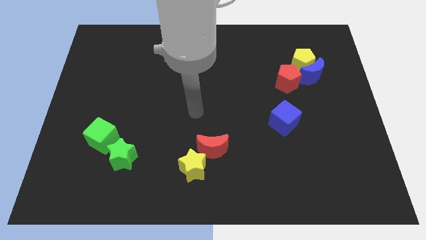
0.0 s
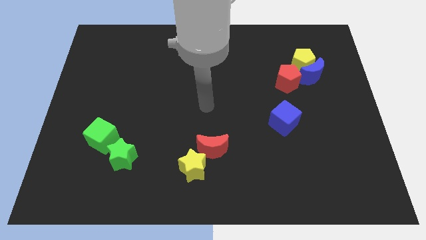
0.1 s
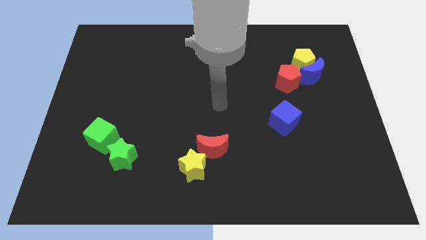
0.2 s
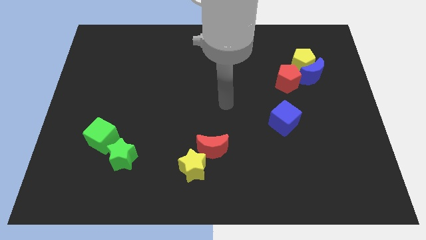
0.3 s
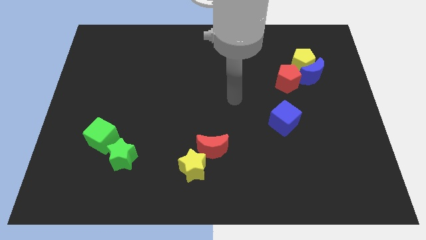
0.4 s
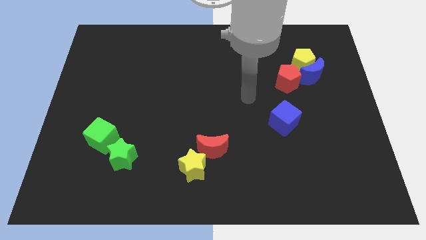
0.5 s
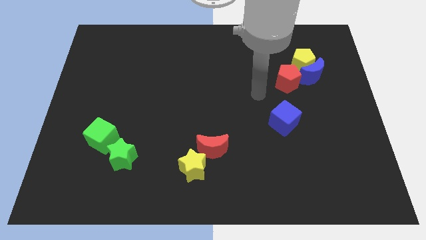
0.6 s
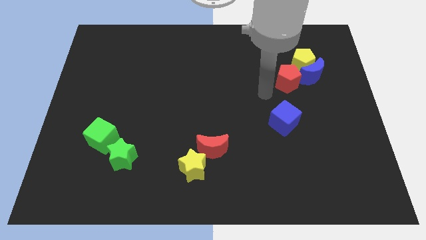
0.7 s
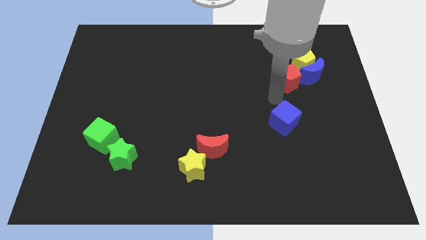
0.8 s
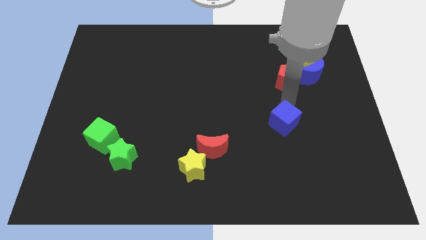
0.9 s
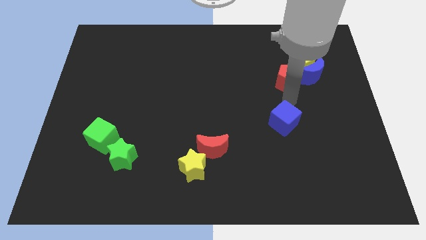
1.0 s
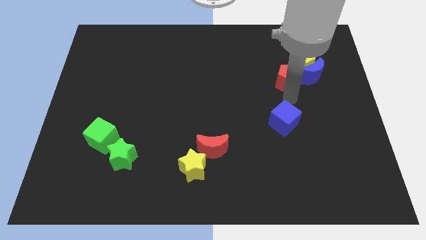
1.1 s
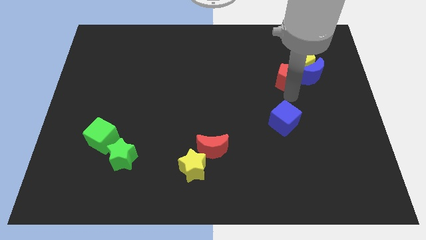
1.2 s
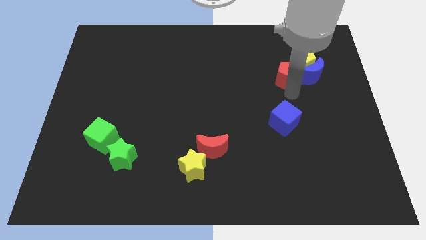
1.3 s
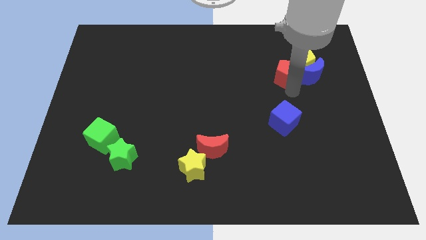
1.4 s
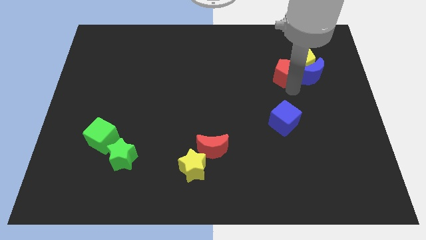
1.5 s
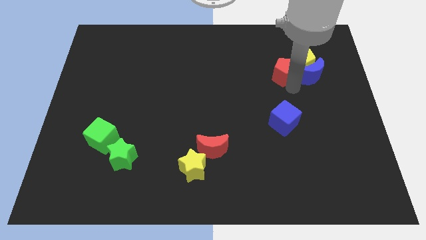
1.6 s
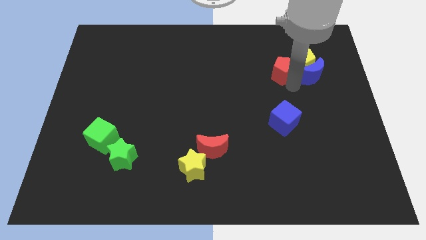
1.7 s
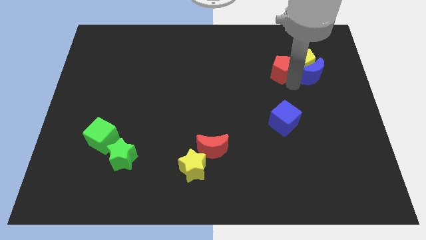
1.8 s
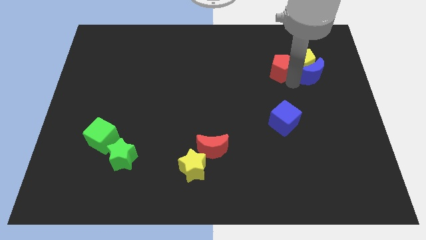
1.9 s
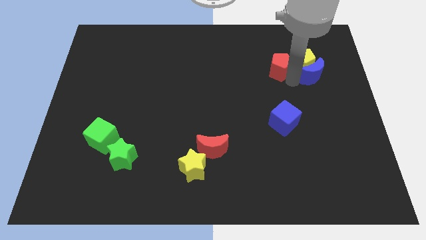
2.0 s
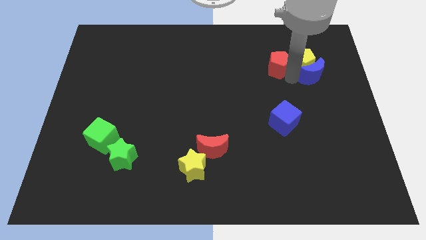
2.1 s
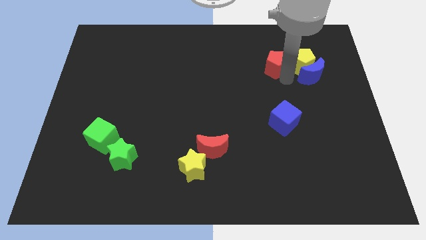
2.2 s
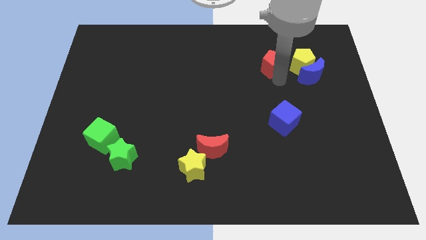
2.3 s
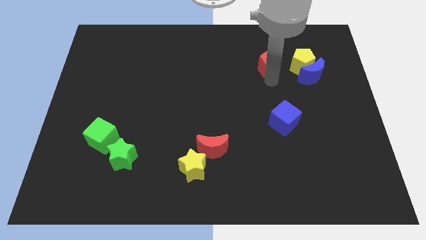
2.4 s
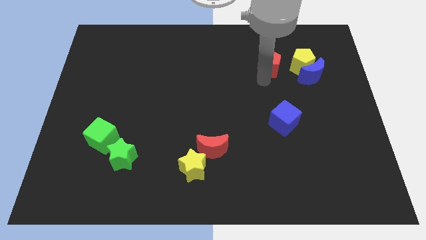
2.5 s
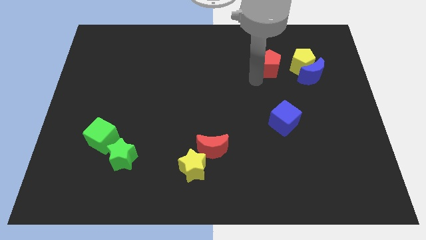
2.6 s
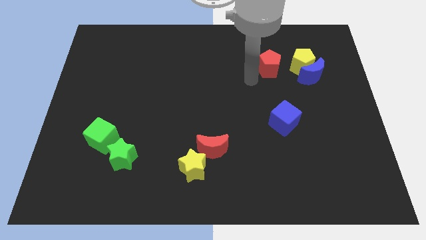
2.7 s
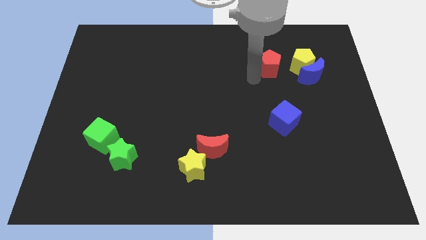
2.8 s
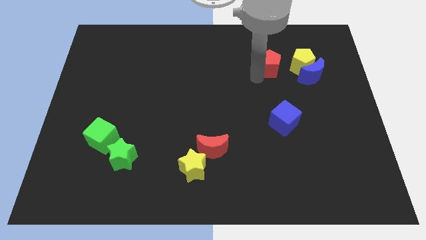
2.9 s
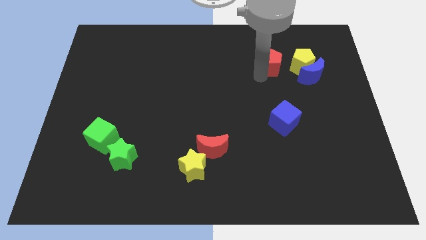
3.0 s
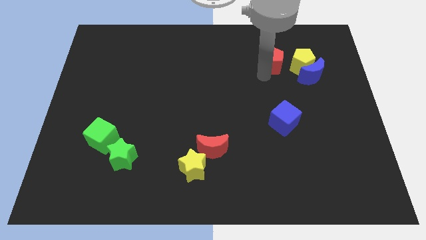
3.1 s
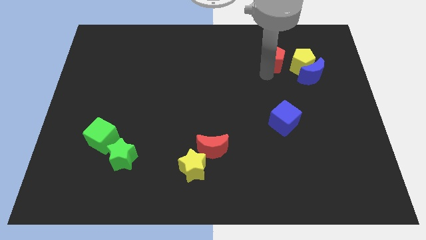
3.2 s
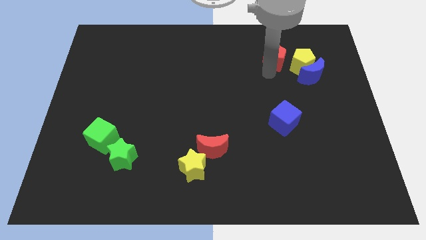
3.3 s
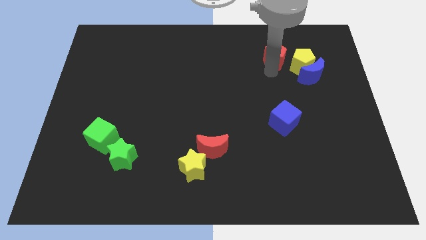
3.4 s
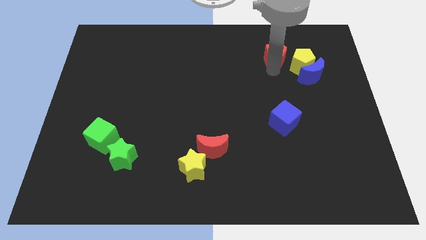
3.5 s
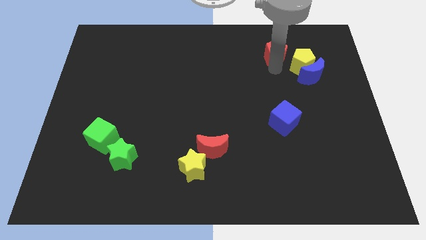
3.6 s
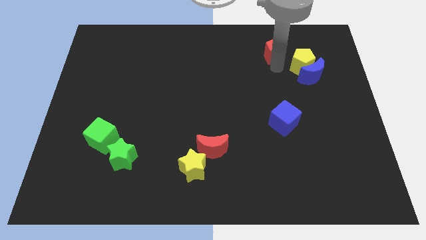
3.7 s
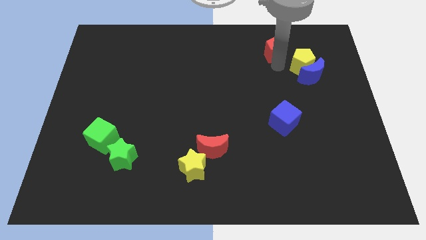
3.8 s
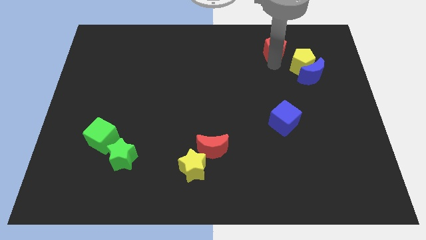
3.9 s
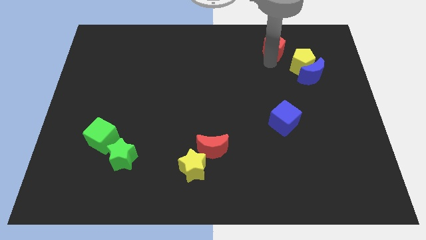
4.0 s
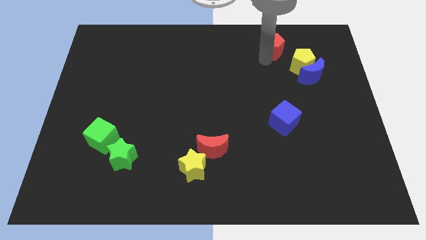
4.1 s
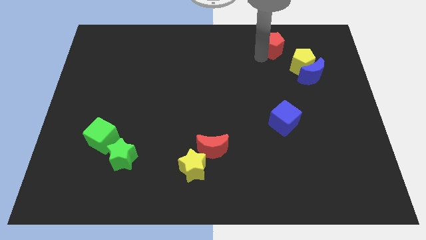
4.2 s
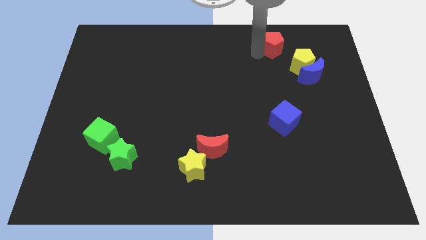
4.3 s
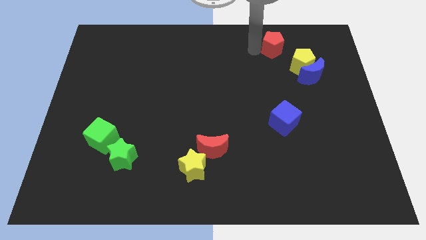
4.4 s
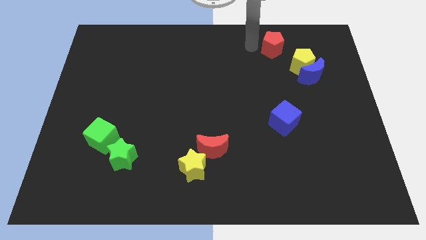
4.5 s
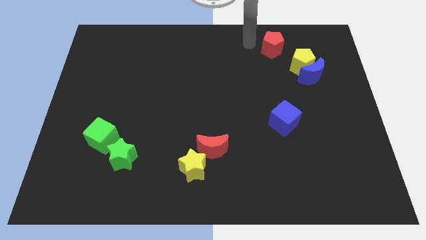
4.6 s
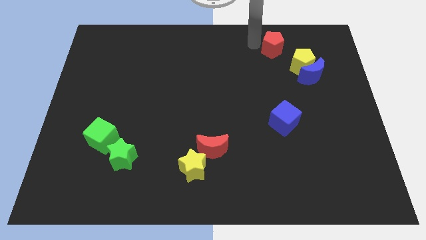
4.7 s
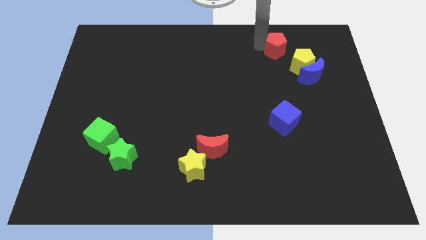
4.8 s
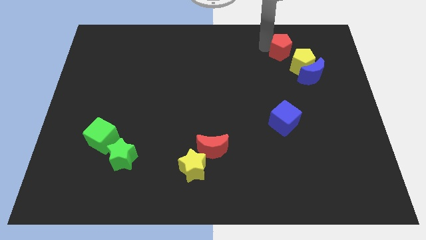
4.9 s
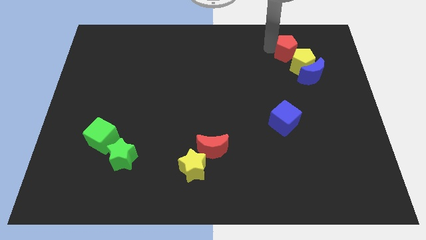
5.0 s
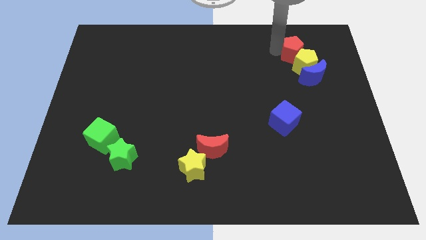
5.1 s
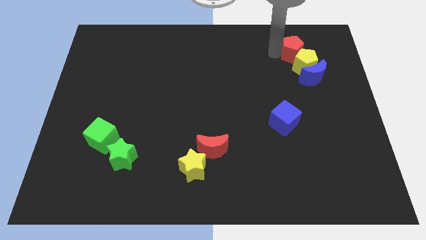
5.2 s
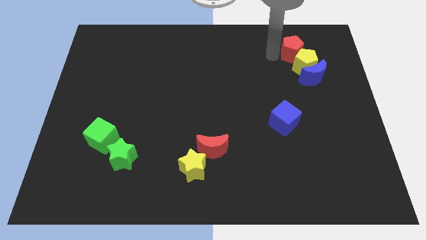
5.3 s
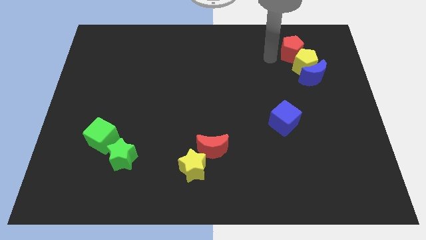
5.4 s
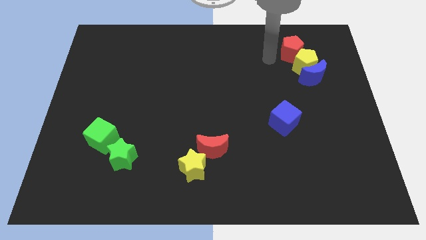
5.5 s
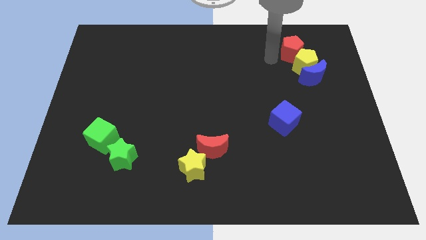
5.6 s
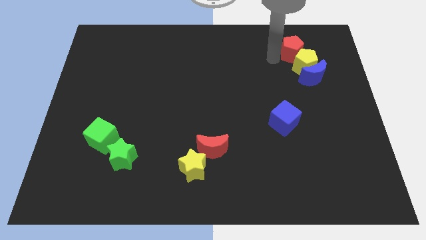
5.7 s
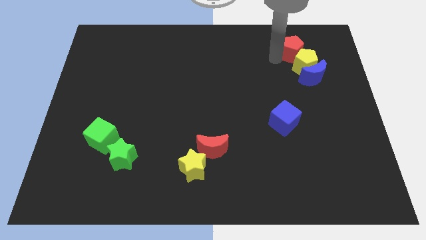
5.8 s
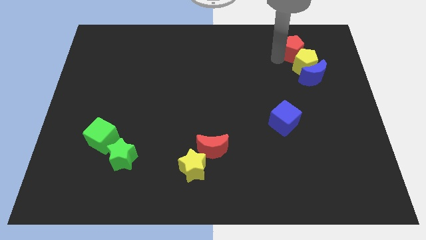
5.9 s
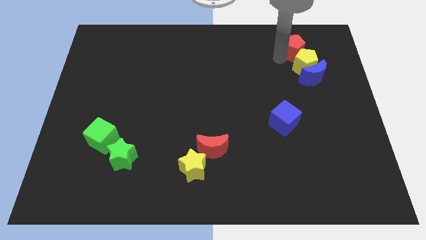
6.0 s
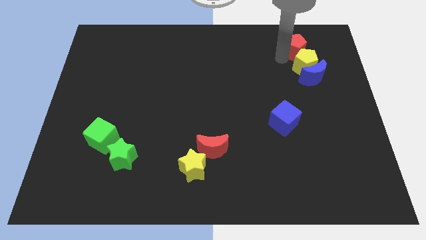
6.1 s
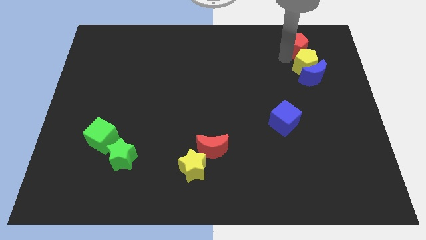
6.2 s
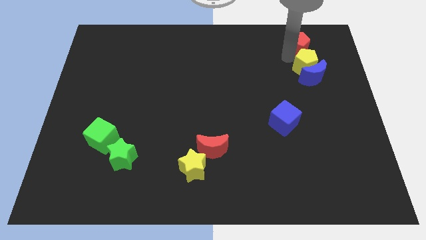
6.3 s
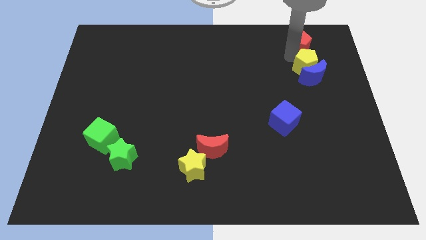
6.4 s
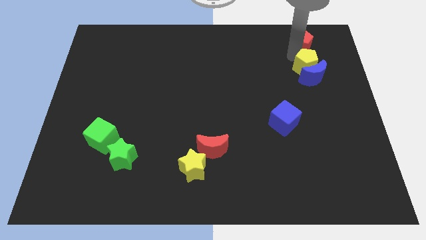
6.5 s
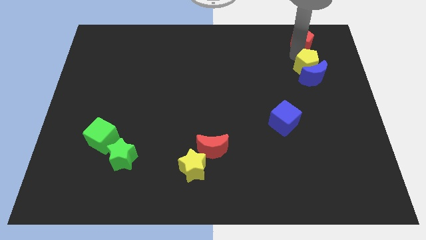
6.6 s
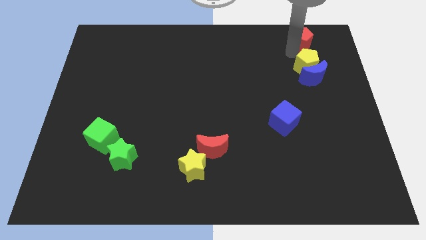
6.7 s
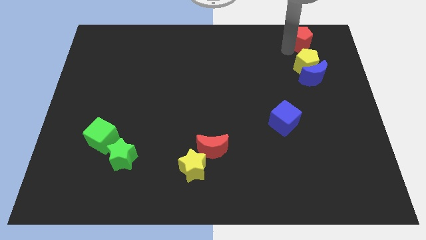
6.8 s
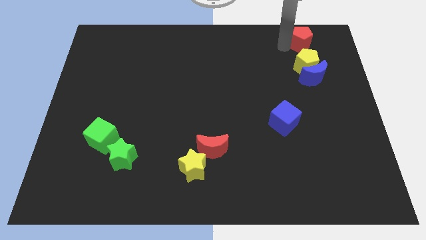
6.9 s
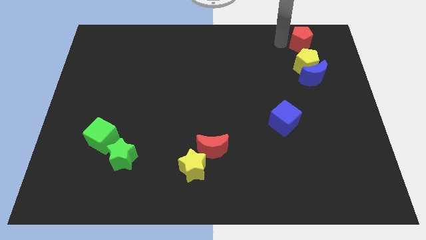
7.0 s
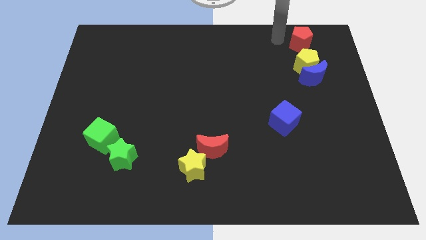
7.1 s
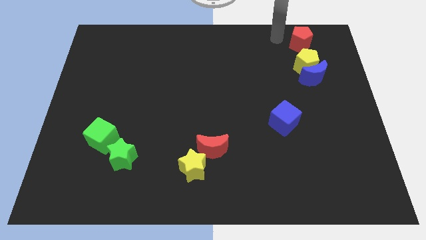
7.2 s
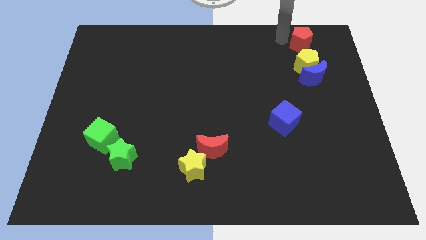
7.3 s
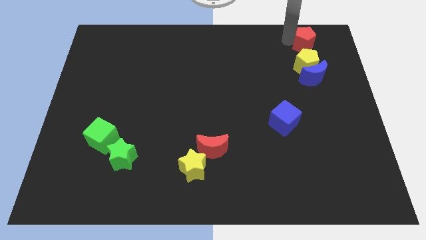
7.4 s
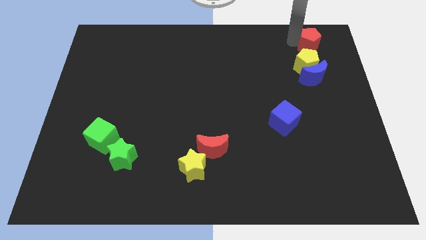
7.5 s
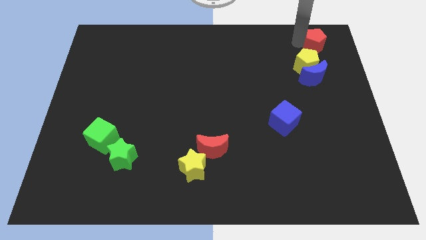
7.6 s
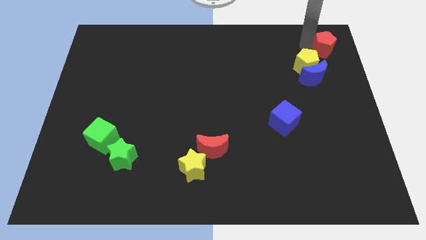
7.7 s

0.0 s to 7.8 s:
slide the red pentagon to the top right corner
